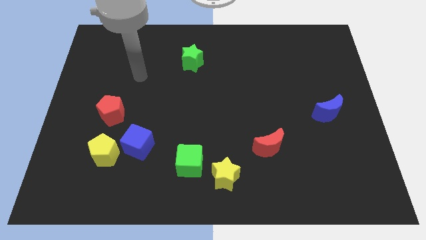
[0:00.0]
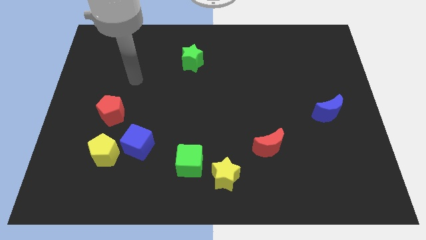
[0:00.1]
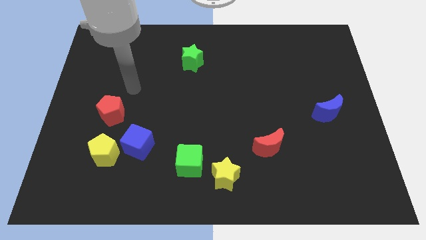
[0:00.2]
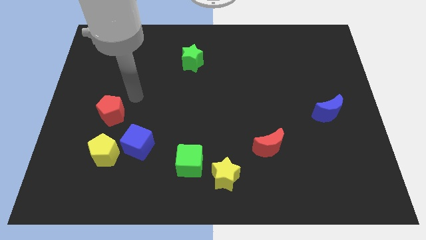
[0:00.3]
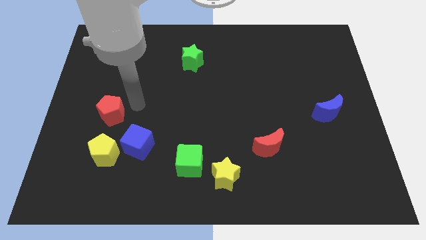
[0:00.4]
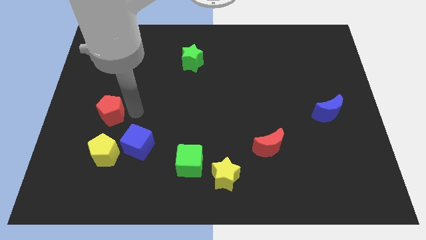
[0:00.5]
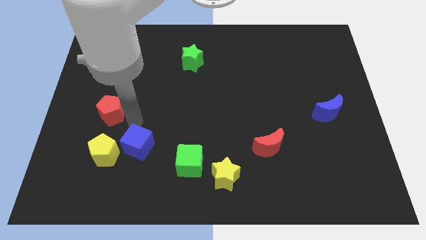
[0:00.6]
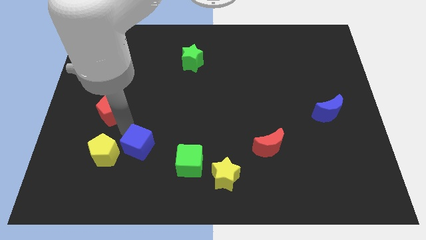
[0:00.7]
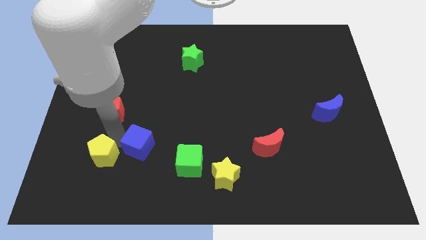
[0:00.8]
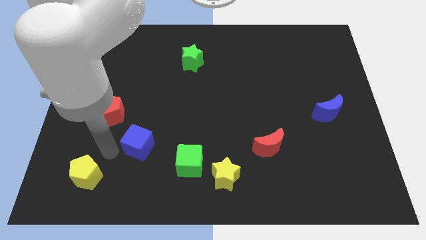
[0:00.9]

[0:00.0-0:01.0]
move the blue cube away from the yellow pentagon

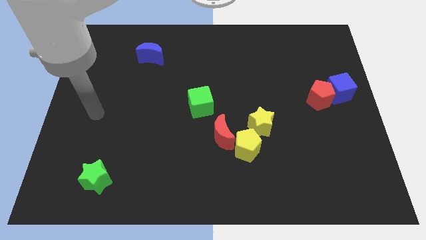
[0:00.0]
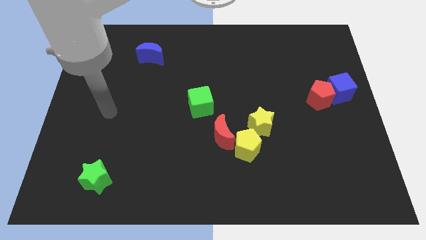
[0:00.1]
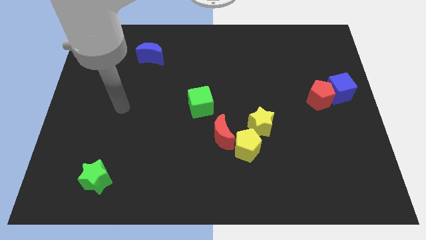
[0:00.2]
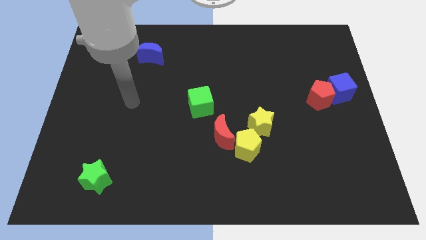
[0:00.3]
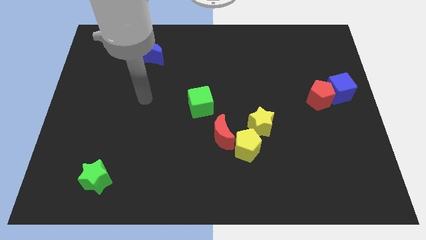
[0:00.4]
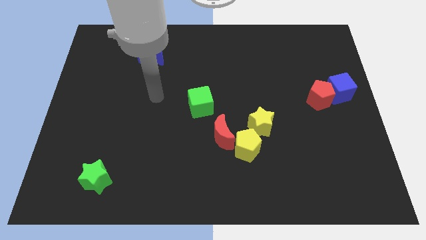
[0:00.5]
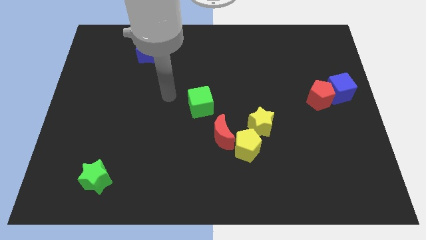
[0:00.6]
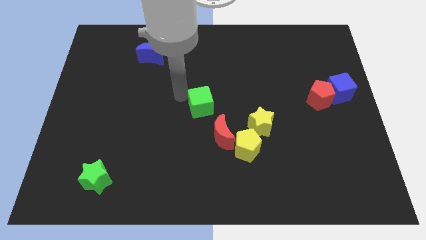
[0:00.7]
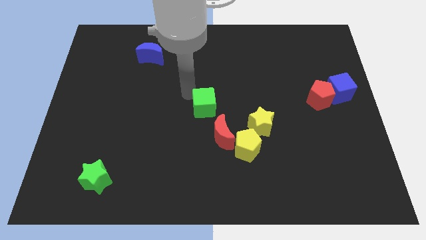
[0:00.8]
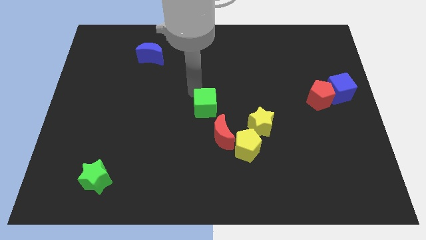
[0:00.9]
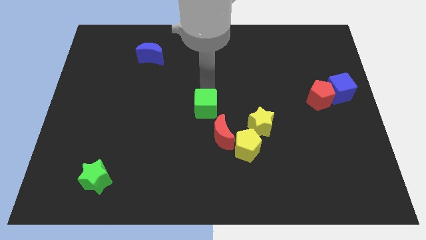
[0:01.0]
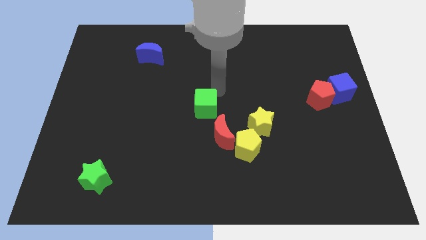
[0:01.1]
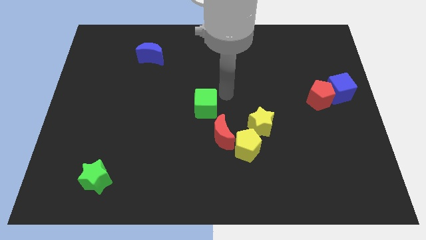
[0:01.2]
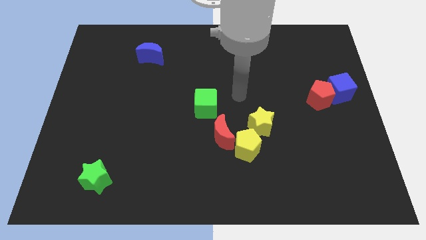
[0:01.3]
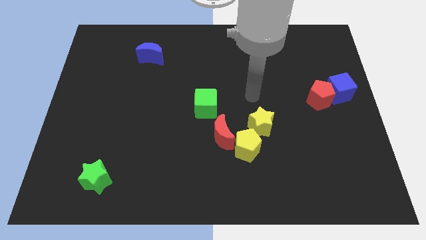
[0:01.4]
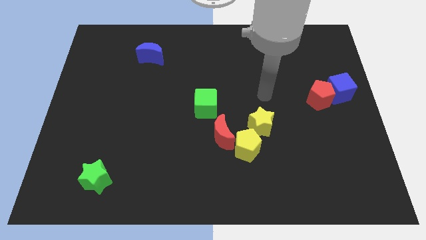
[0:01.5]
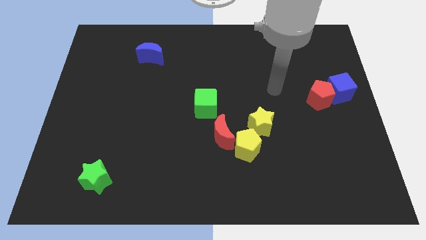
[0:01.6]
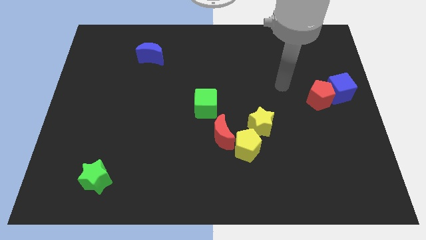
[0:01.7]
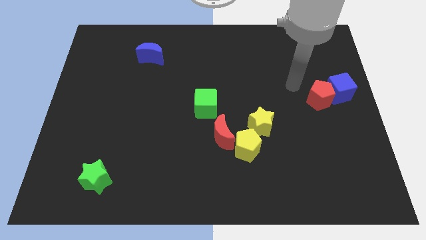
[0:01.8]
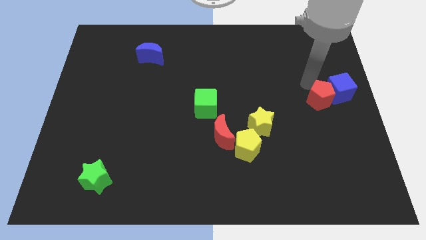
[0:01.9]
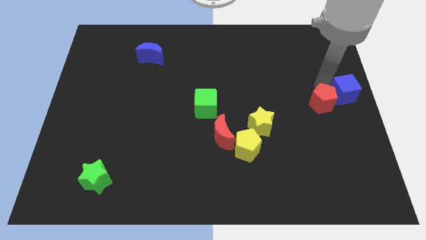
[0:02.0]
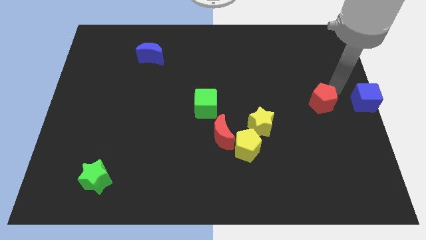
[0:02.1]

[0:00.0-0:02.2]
separate the red pentagon from the blue cube

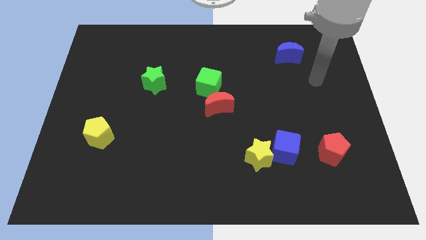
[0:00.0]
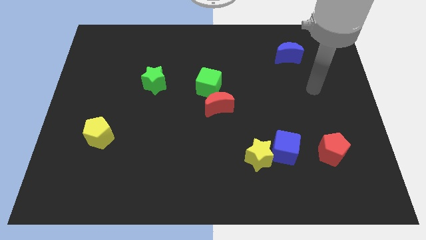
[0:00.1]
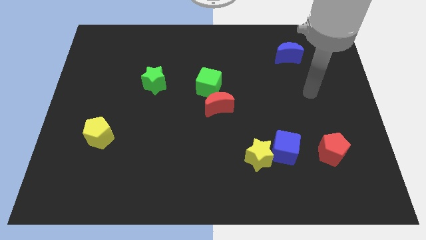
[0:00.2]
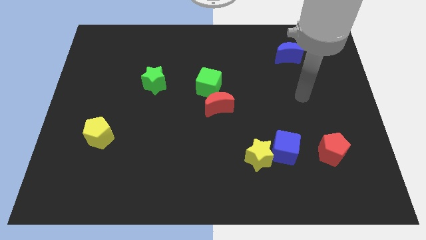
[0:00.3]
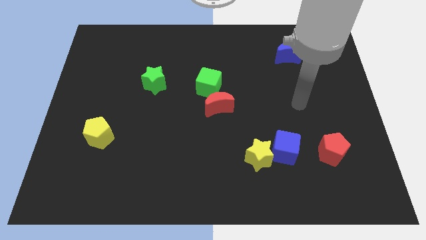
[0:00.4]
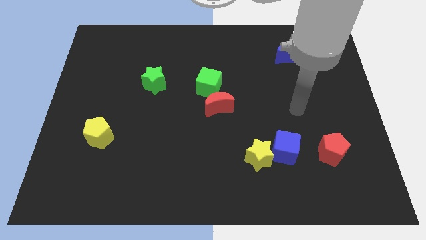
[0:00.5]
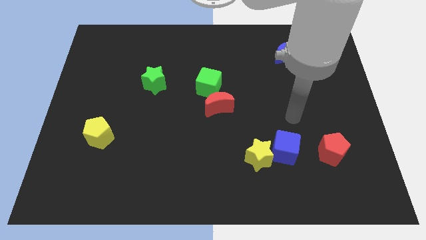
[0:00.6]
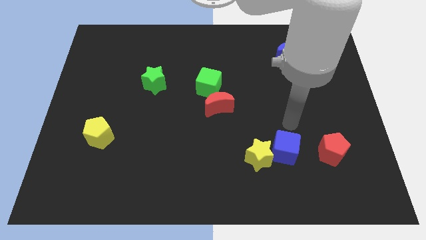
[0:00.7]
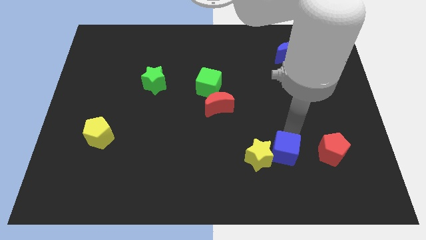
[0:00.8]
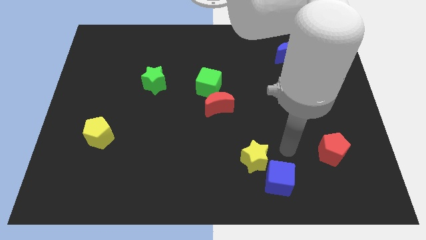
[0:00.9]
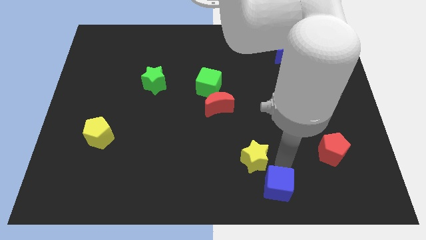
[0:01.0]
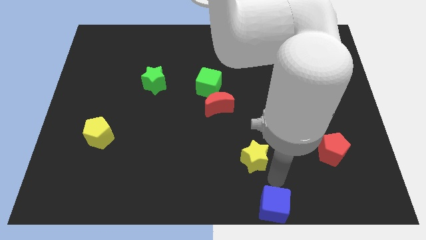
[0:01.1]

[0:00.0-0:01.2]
separate the yellow star from the blue cube

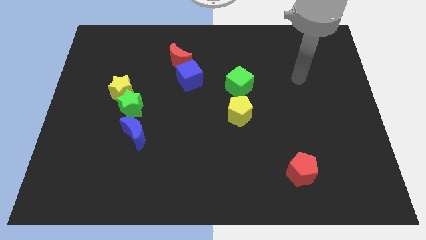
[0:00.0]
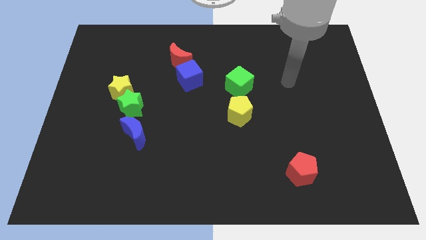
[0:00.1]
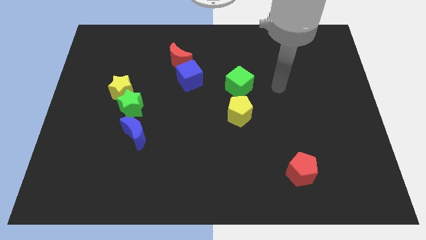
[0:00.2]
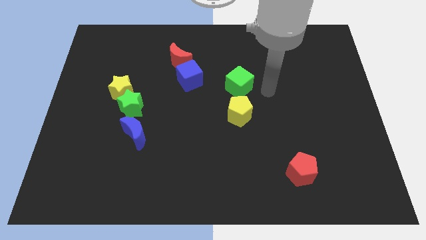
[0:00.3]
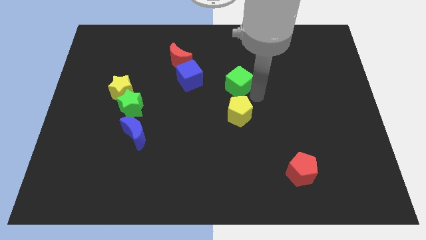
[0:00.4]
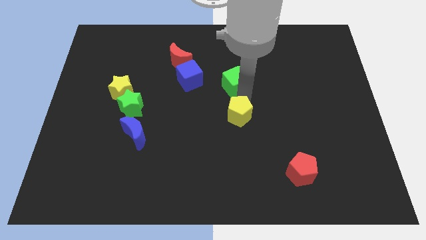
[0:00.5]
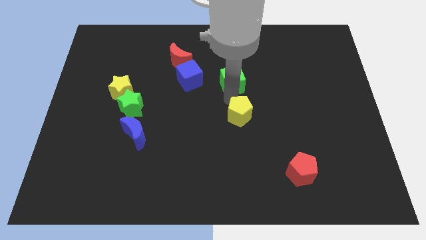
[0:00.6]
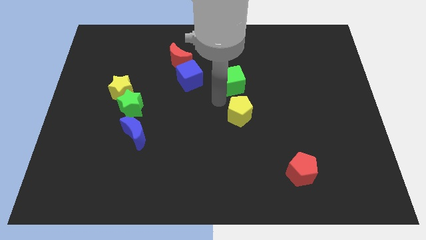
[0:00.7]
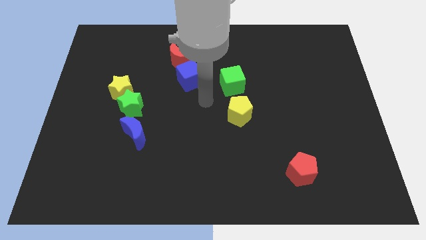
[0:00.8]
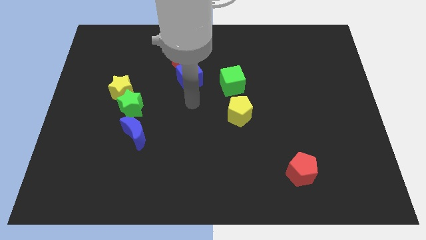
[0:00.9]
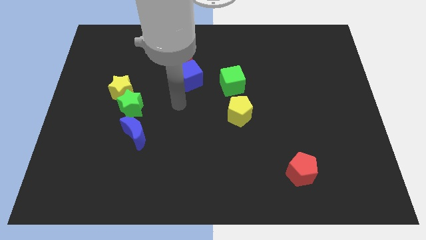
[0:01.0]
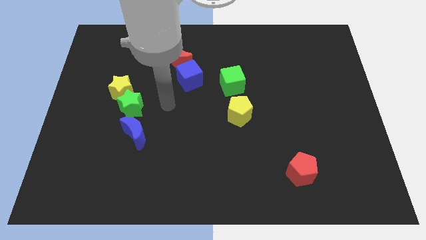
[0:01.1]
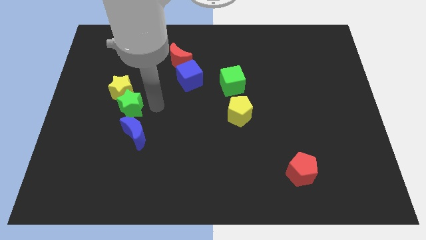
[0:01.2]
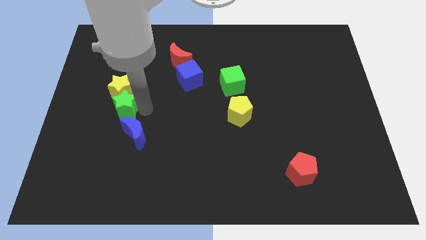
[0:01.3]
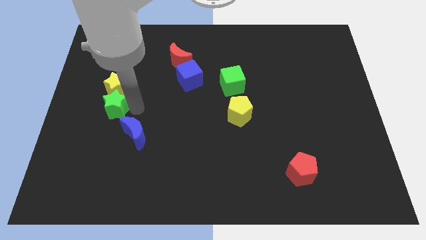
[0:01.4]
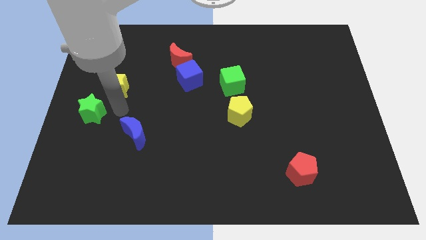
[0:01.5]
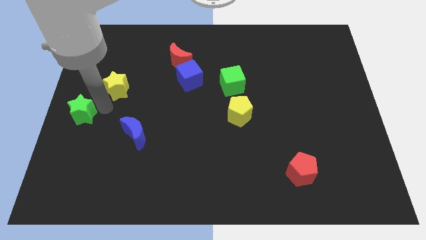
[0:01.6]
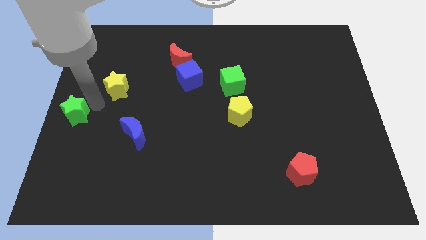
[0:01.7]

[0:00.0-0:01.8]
pull the yellow star apart from the green star

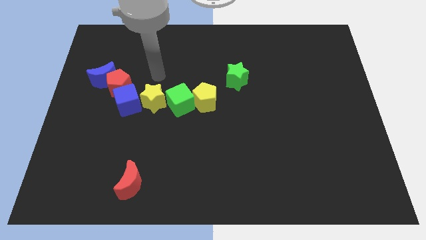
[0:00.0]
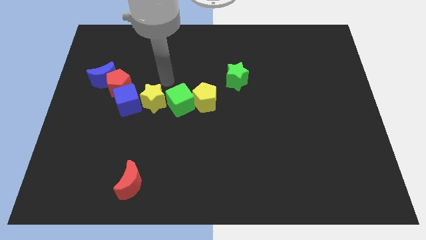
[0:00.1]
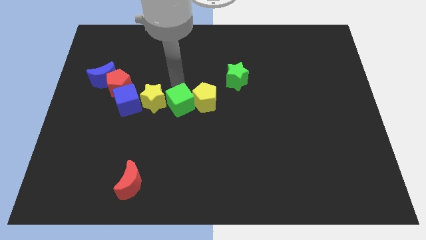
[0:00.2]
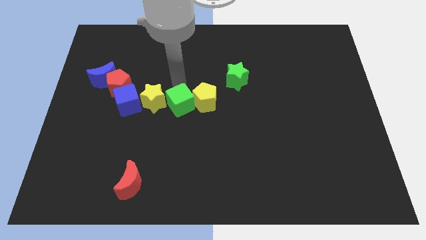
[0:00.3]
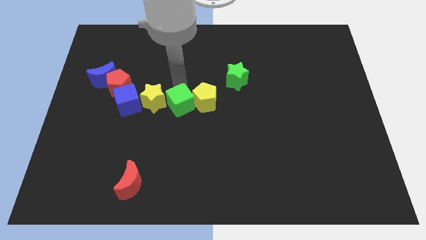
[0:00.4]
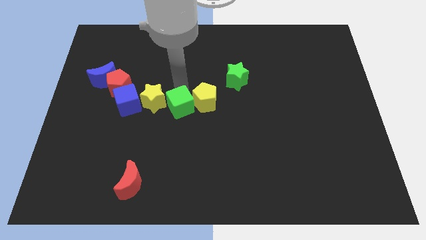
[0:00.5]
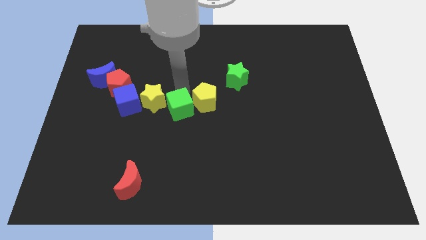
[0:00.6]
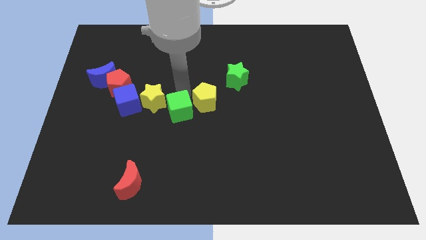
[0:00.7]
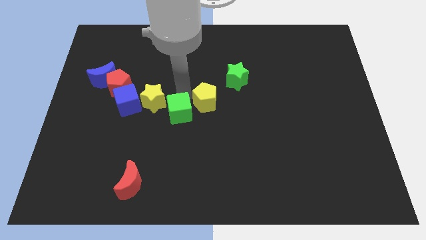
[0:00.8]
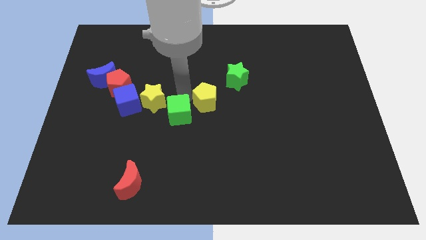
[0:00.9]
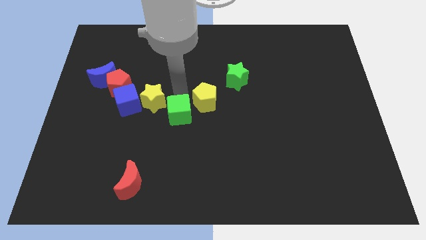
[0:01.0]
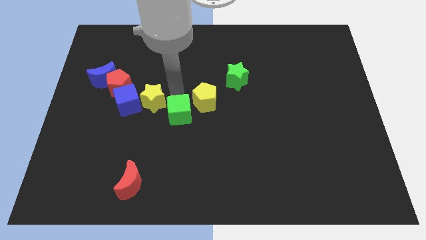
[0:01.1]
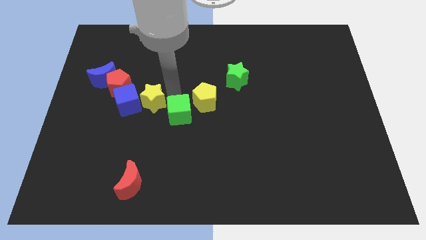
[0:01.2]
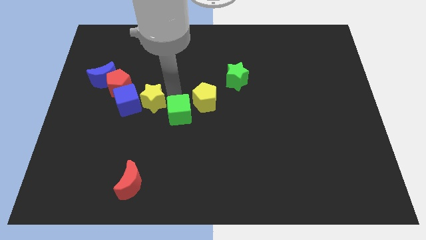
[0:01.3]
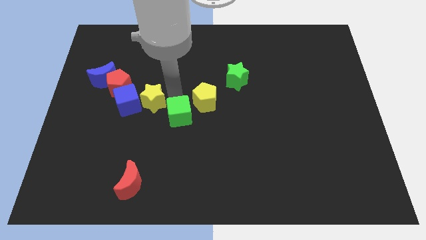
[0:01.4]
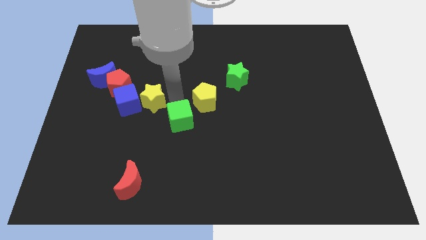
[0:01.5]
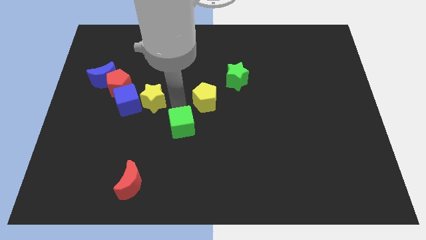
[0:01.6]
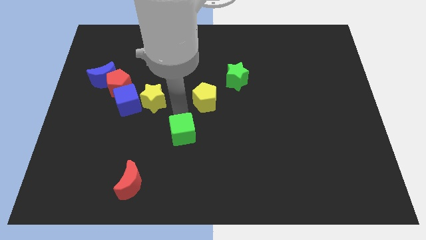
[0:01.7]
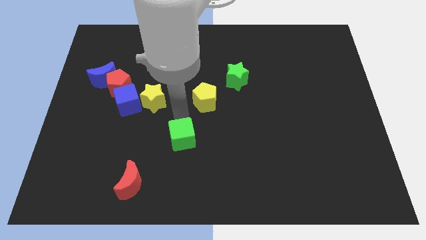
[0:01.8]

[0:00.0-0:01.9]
pull the green cube apart from the yellow pentagon and yellow star

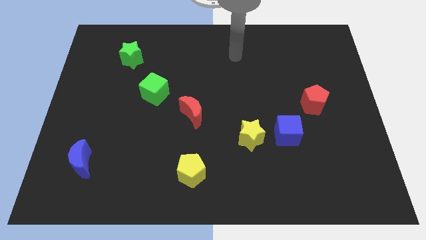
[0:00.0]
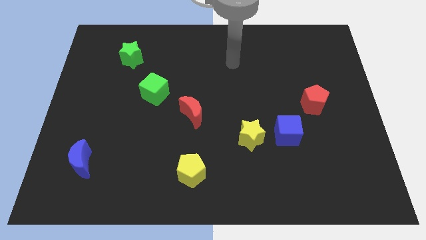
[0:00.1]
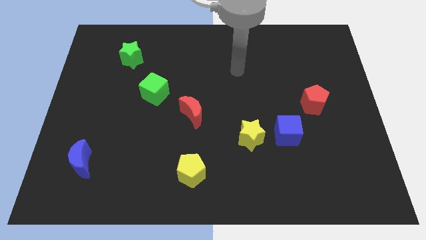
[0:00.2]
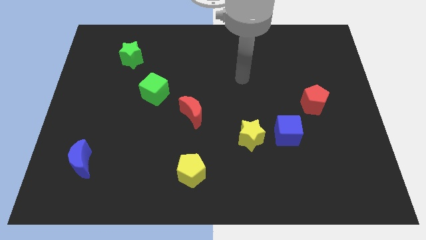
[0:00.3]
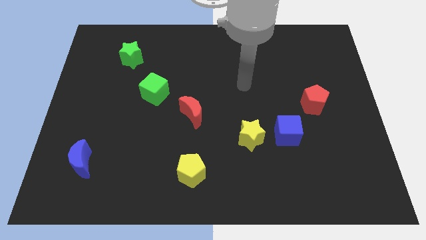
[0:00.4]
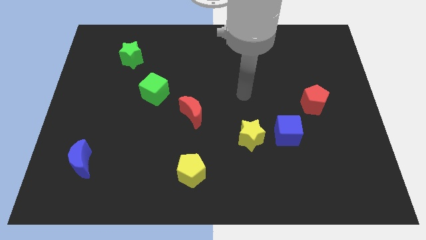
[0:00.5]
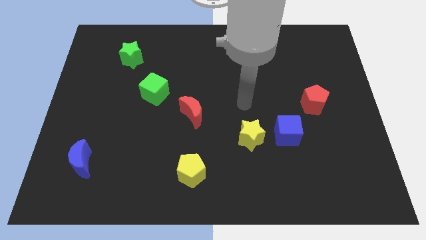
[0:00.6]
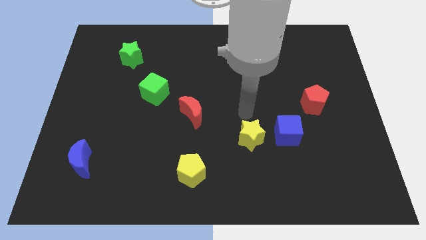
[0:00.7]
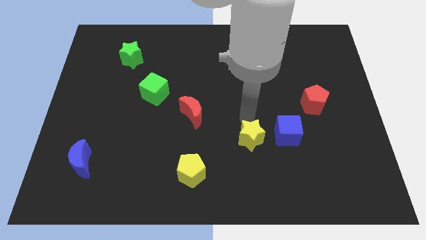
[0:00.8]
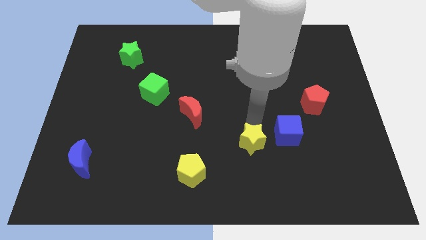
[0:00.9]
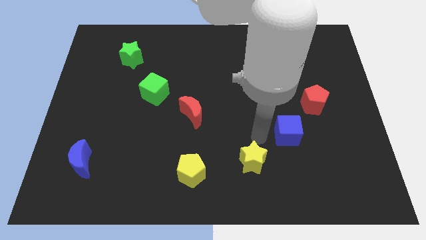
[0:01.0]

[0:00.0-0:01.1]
separate the blue cube from the yellow star

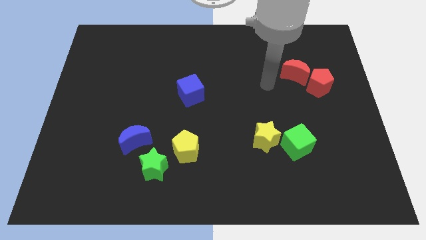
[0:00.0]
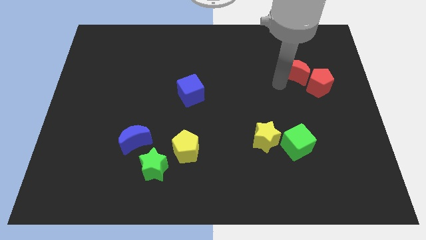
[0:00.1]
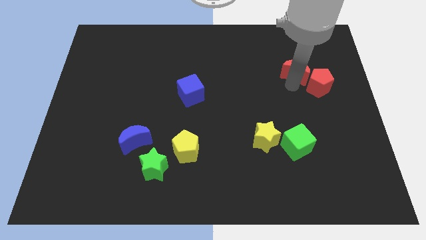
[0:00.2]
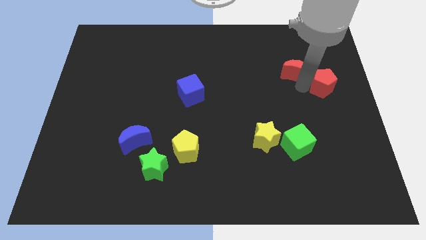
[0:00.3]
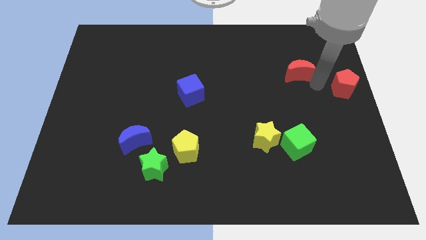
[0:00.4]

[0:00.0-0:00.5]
move the red moon away from the red pentagon
